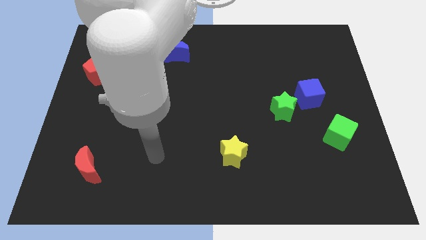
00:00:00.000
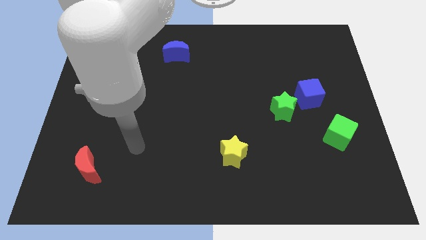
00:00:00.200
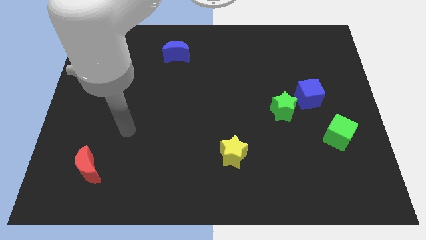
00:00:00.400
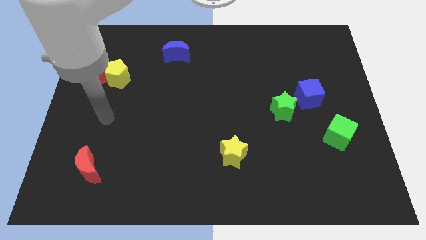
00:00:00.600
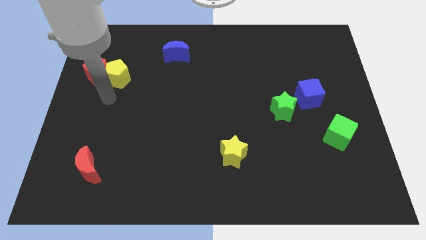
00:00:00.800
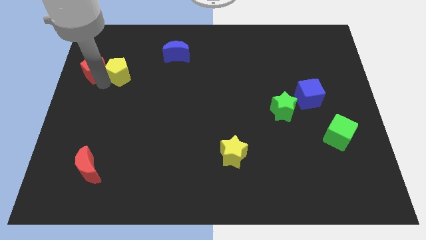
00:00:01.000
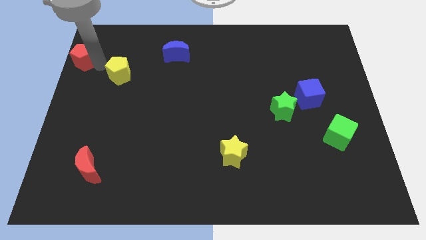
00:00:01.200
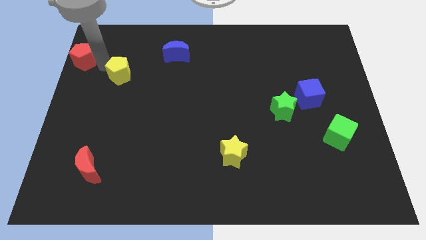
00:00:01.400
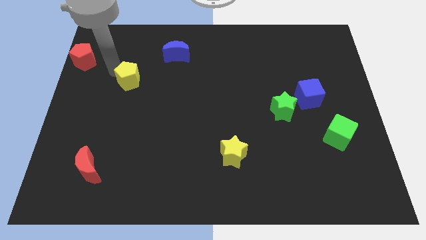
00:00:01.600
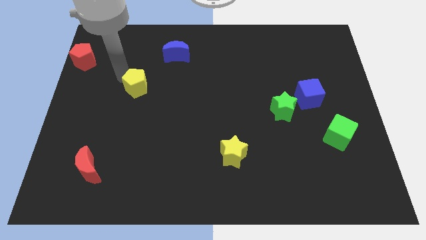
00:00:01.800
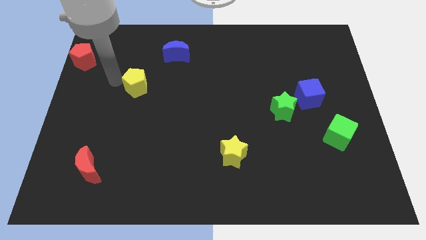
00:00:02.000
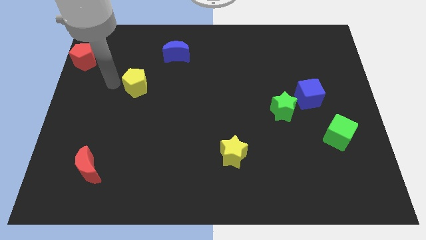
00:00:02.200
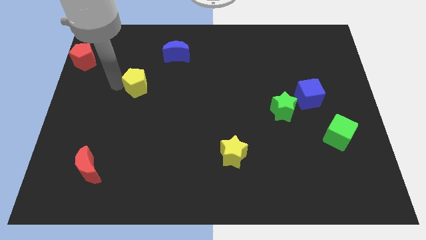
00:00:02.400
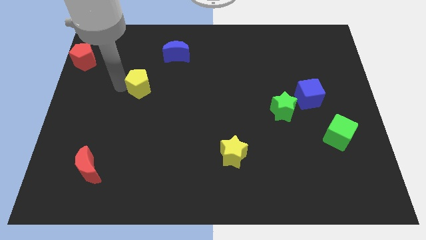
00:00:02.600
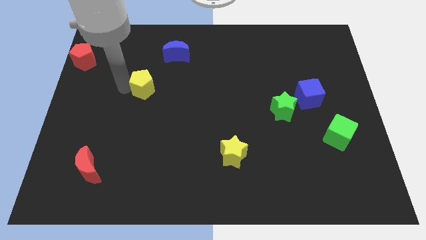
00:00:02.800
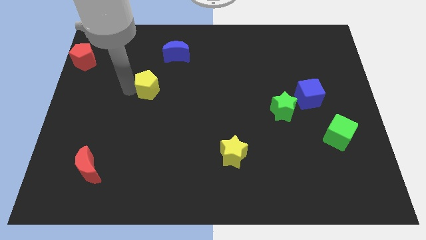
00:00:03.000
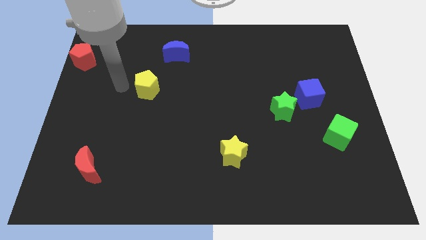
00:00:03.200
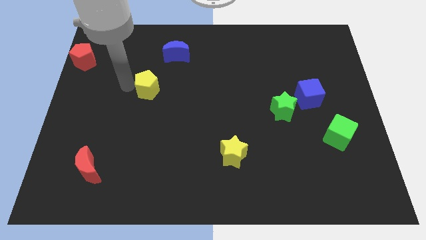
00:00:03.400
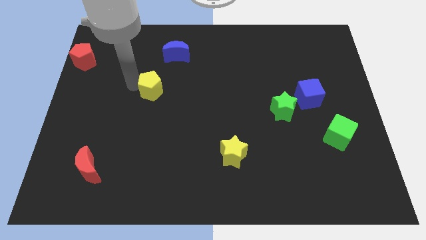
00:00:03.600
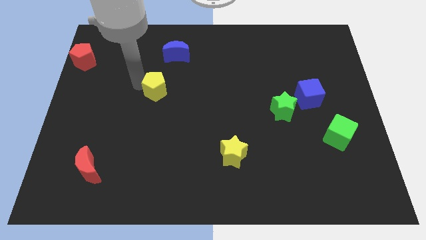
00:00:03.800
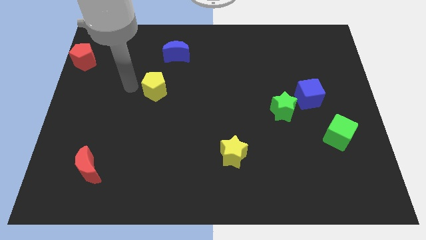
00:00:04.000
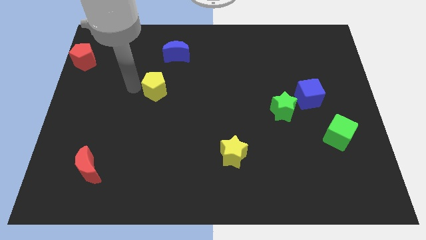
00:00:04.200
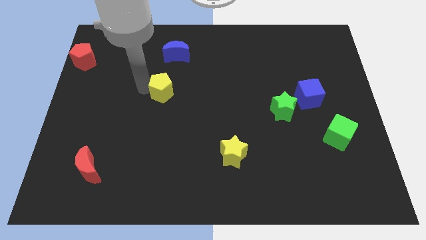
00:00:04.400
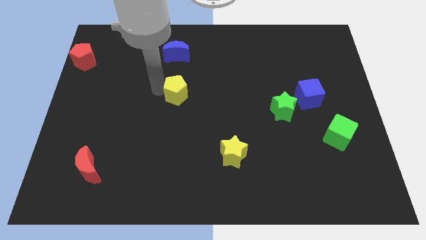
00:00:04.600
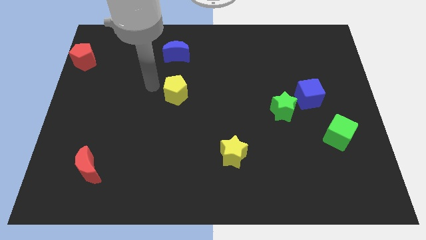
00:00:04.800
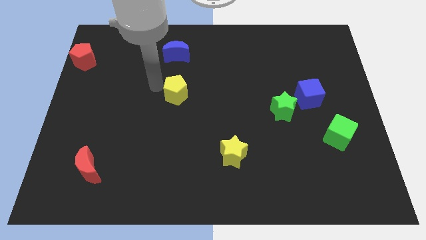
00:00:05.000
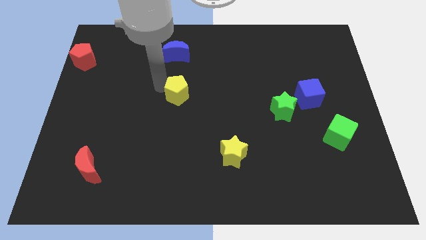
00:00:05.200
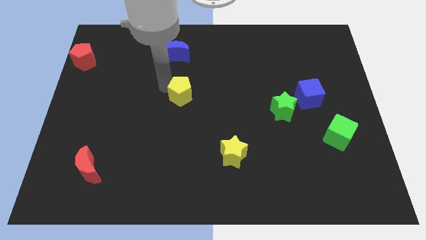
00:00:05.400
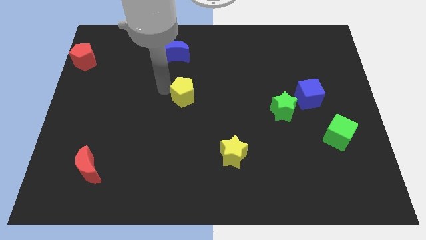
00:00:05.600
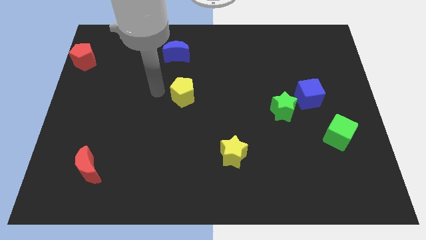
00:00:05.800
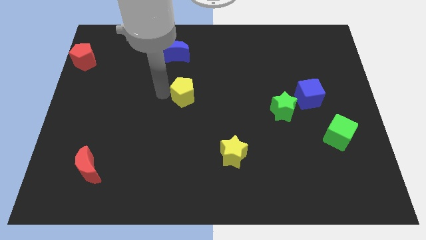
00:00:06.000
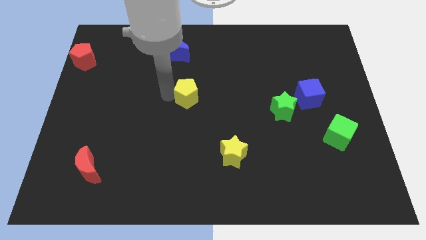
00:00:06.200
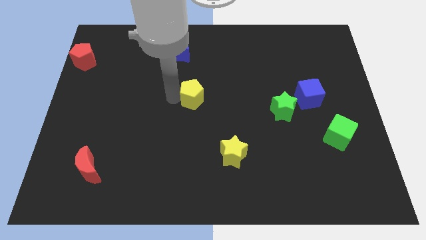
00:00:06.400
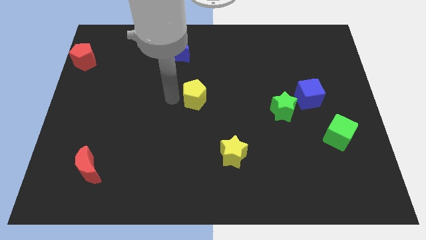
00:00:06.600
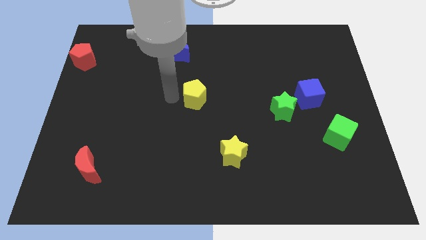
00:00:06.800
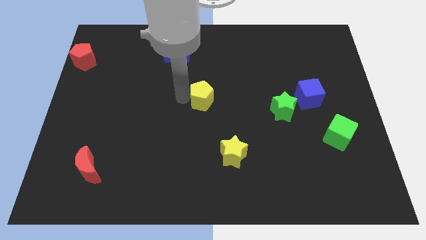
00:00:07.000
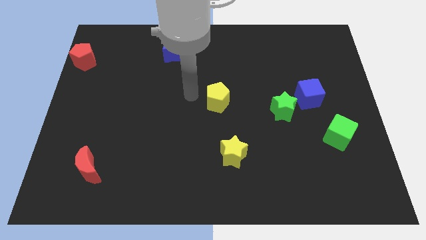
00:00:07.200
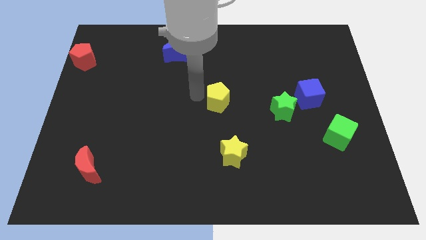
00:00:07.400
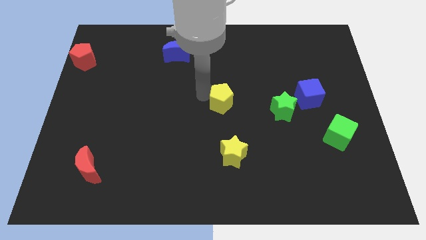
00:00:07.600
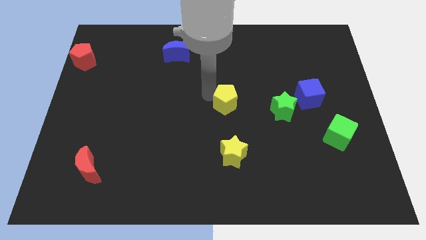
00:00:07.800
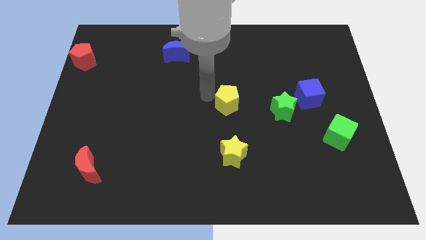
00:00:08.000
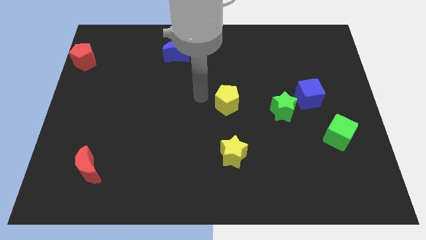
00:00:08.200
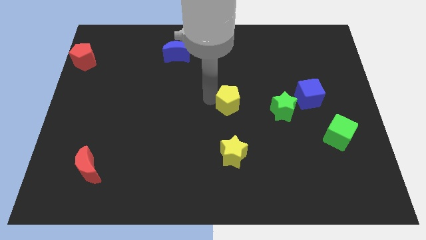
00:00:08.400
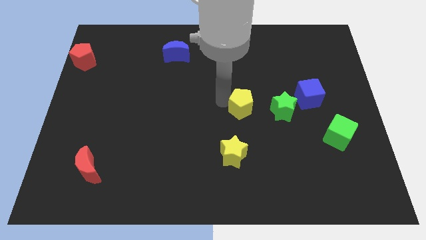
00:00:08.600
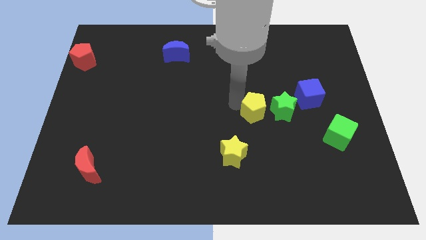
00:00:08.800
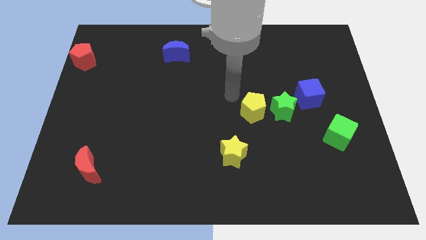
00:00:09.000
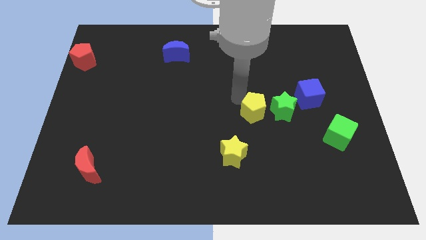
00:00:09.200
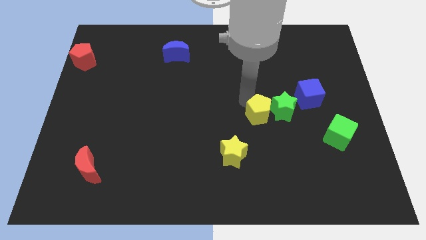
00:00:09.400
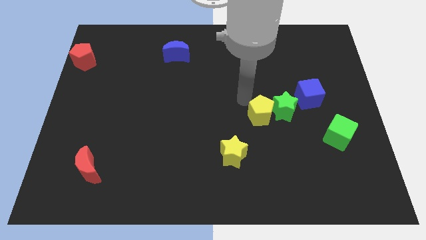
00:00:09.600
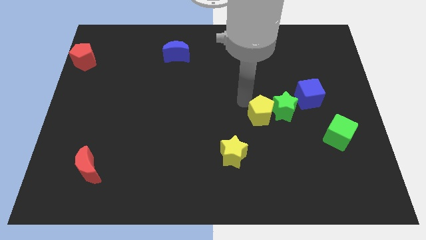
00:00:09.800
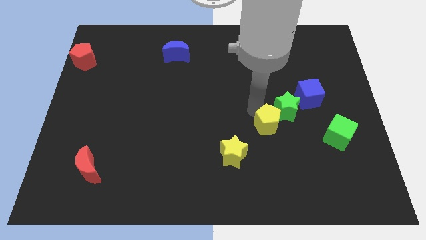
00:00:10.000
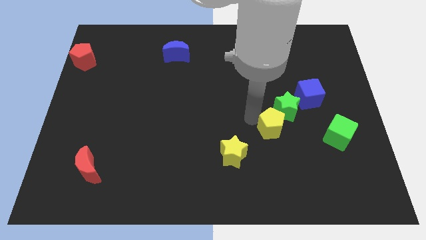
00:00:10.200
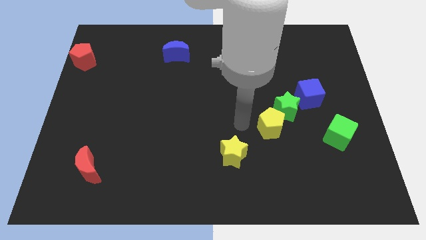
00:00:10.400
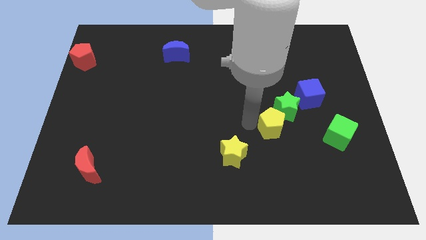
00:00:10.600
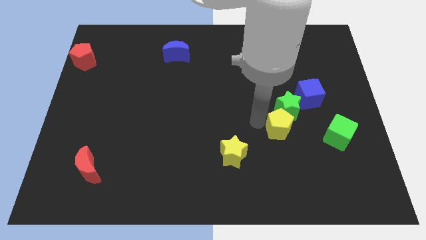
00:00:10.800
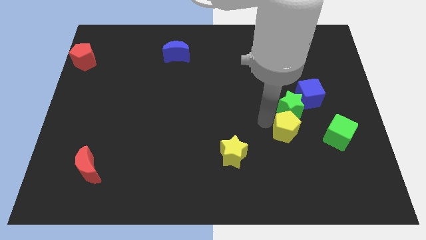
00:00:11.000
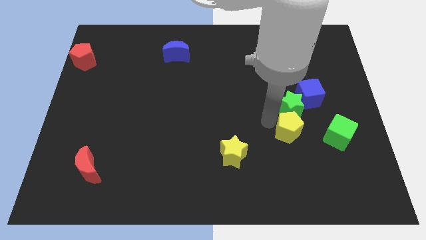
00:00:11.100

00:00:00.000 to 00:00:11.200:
slide the yellow pentagon to the bottom right of the green star

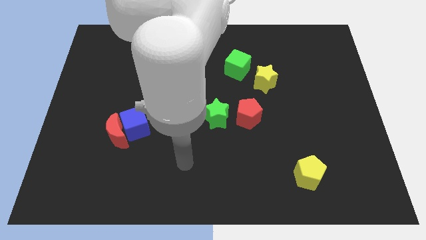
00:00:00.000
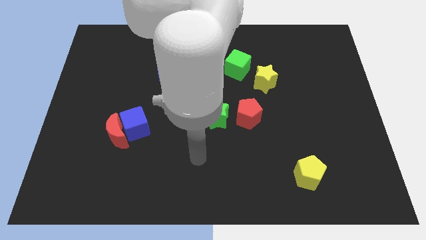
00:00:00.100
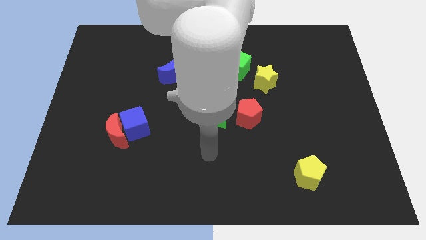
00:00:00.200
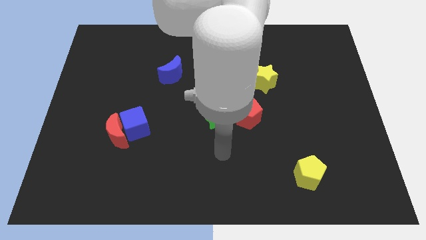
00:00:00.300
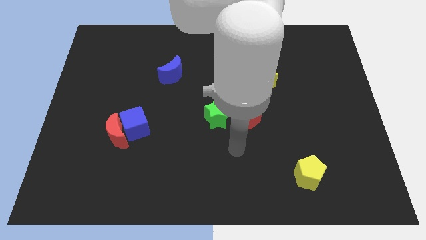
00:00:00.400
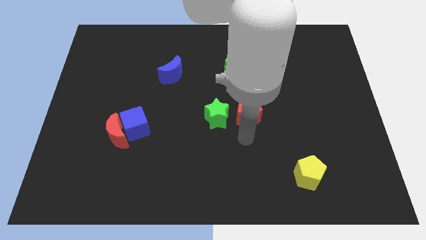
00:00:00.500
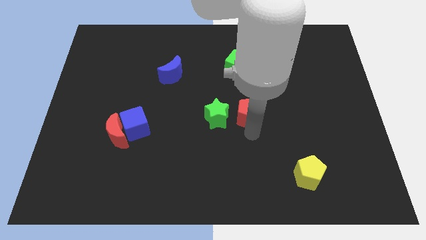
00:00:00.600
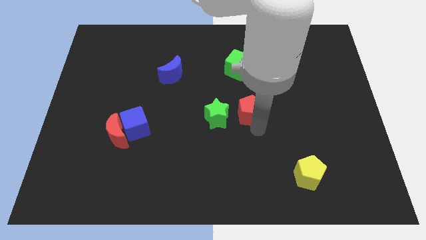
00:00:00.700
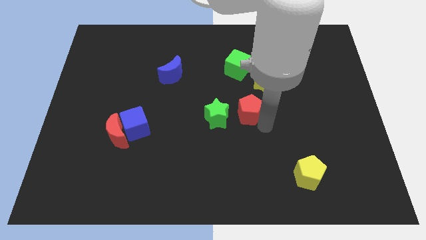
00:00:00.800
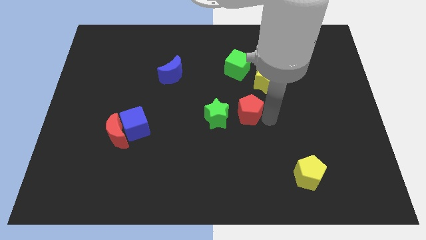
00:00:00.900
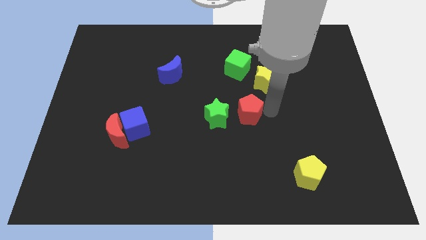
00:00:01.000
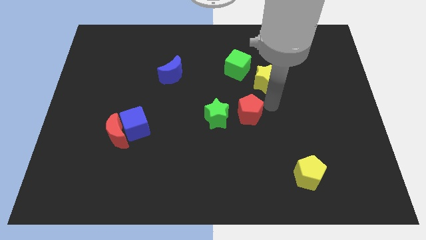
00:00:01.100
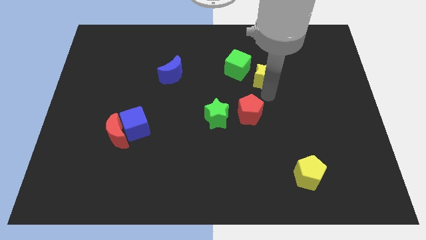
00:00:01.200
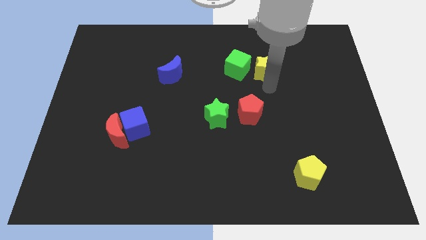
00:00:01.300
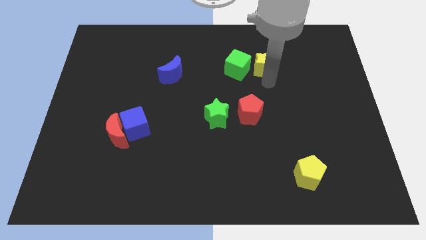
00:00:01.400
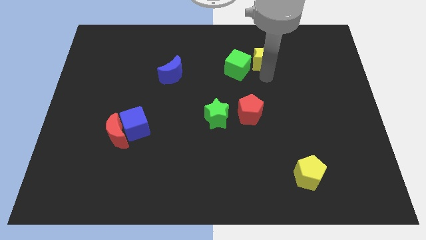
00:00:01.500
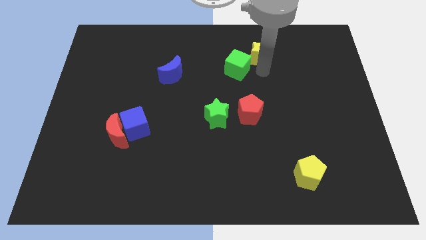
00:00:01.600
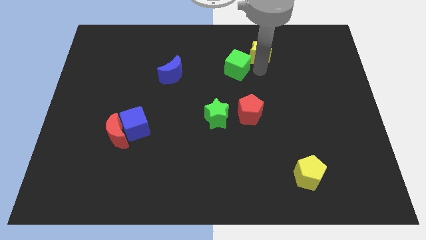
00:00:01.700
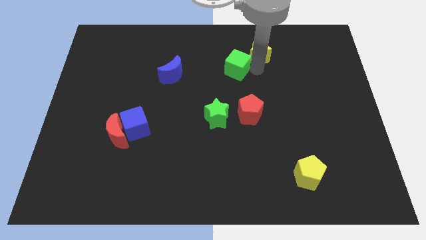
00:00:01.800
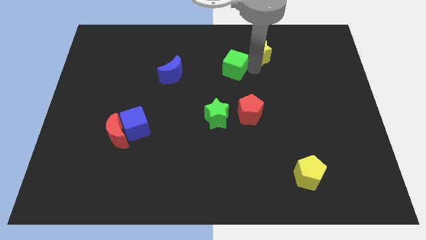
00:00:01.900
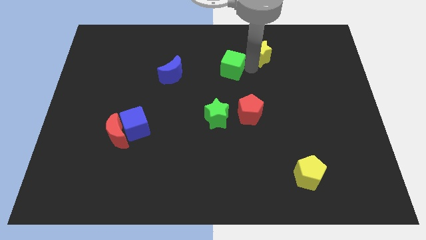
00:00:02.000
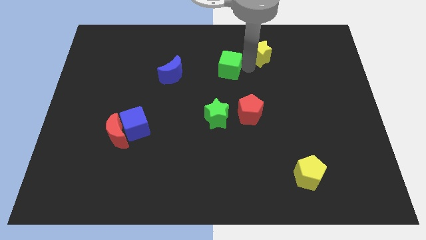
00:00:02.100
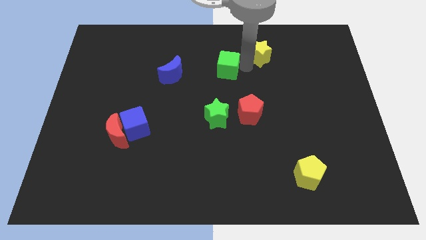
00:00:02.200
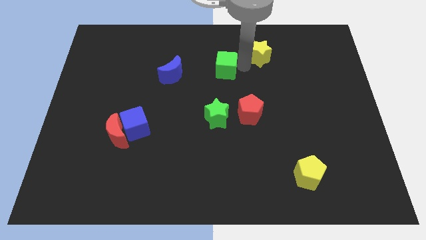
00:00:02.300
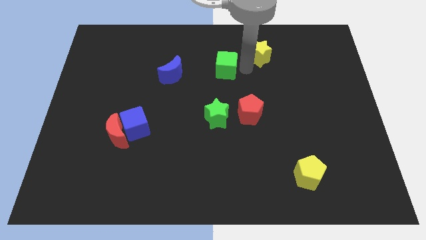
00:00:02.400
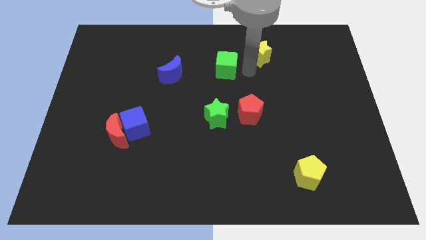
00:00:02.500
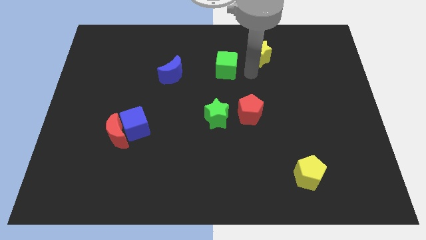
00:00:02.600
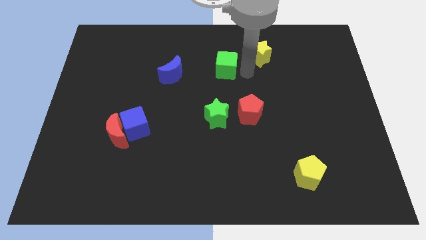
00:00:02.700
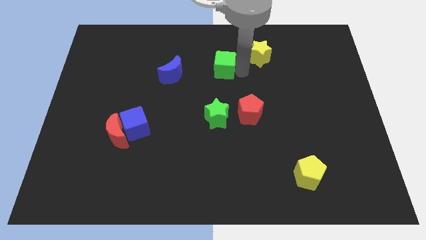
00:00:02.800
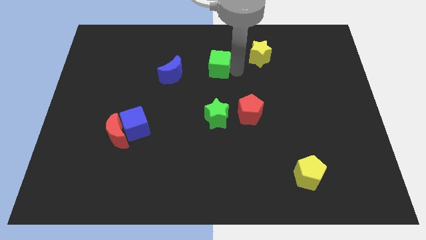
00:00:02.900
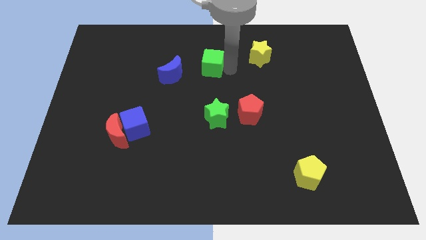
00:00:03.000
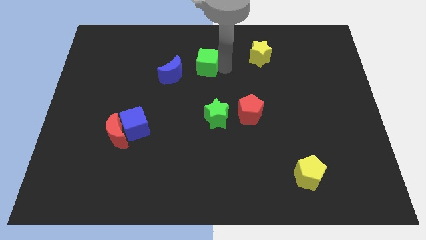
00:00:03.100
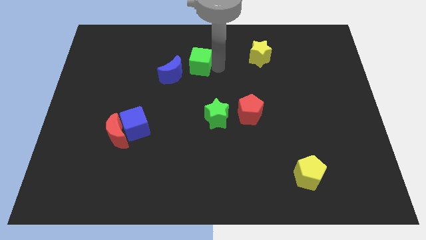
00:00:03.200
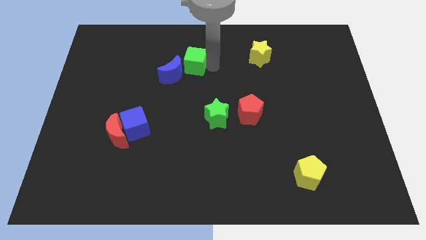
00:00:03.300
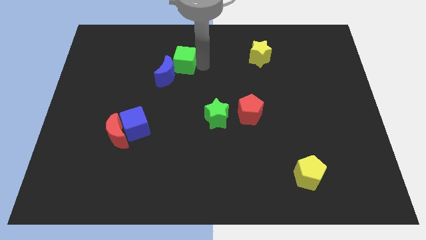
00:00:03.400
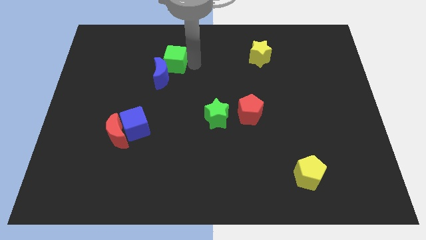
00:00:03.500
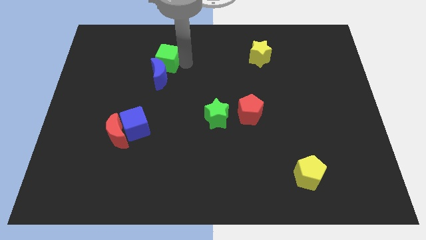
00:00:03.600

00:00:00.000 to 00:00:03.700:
push the green cube to the top left of the blue moon
